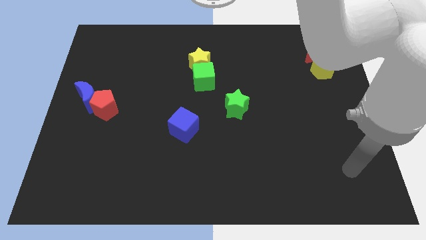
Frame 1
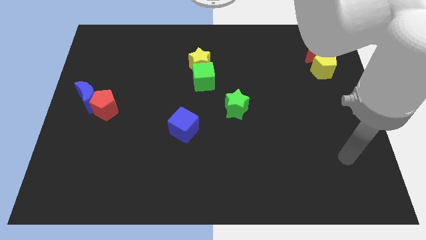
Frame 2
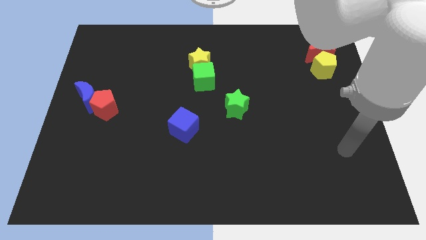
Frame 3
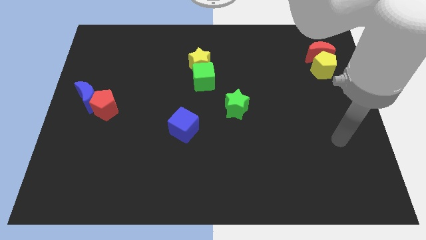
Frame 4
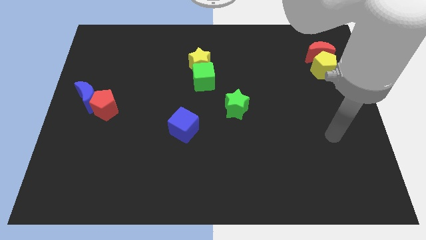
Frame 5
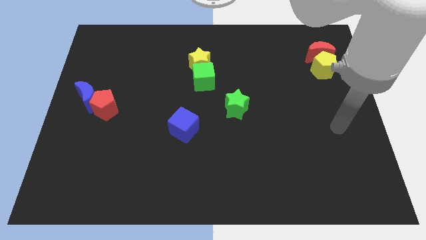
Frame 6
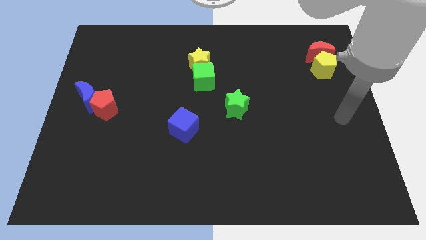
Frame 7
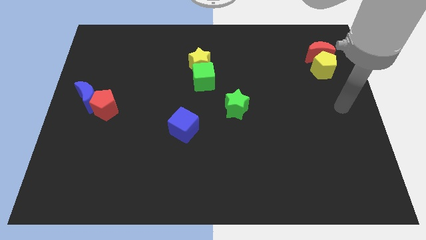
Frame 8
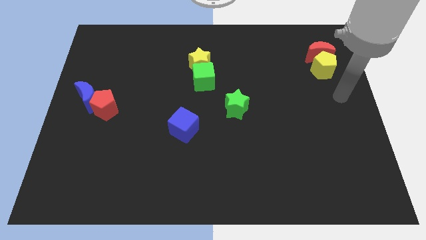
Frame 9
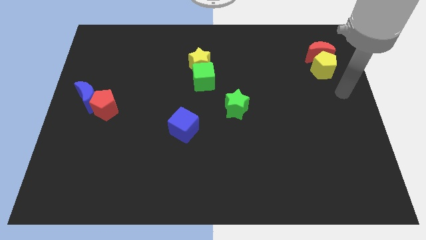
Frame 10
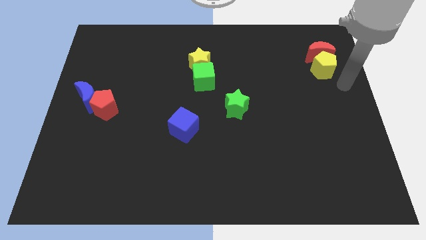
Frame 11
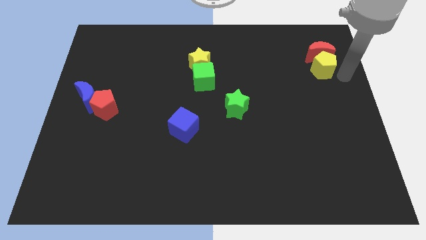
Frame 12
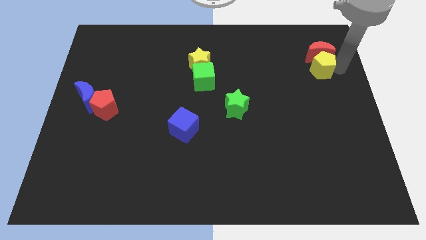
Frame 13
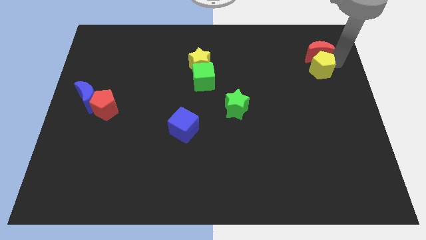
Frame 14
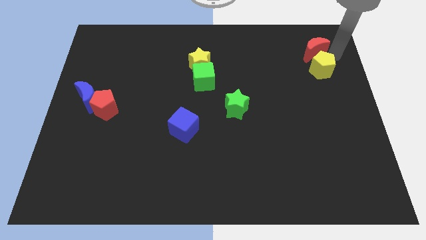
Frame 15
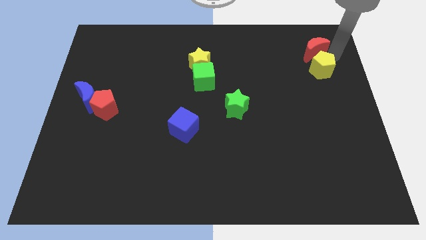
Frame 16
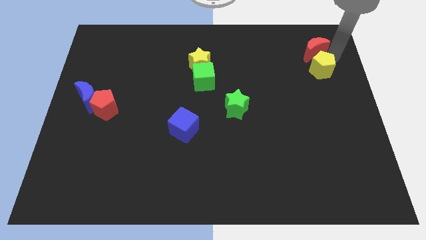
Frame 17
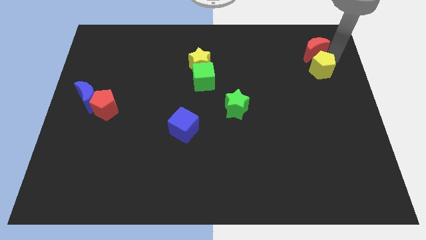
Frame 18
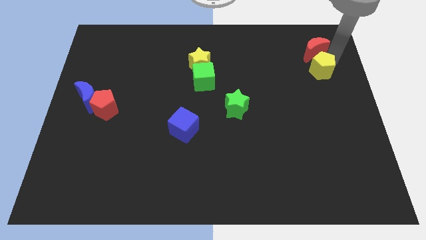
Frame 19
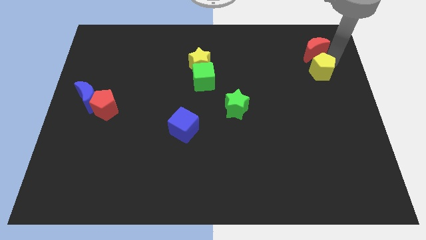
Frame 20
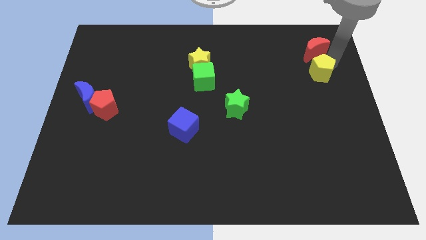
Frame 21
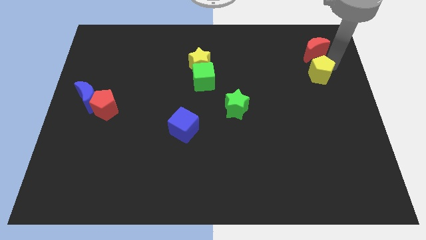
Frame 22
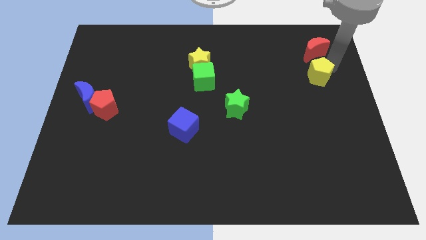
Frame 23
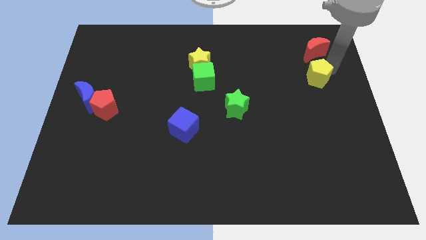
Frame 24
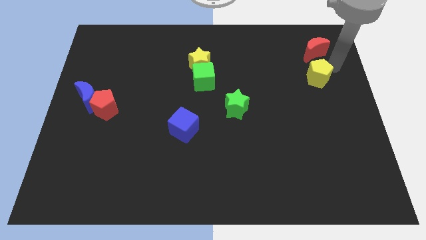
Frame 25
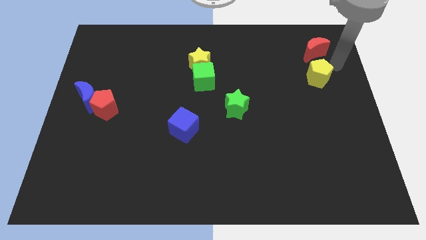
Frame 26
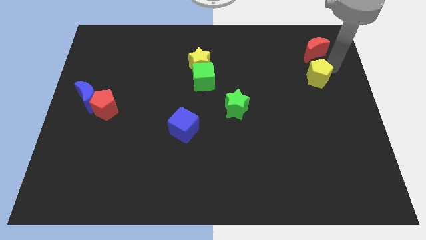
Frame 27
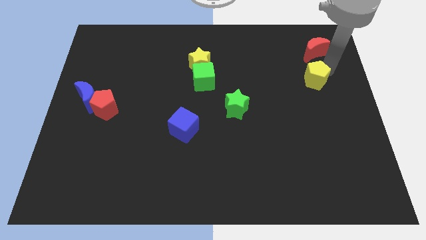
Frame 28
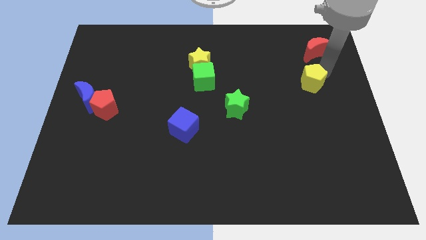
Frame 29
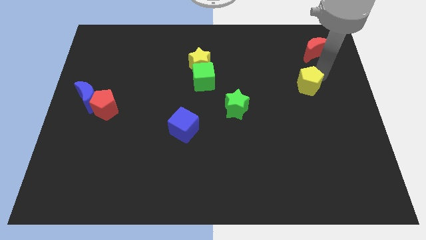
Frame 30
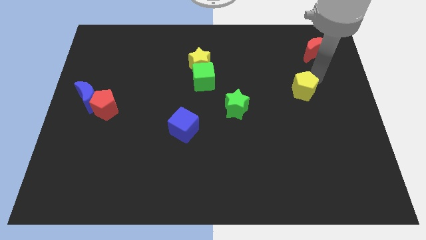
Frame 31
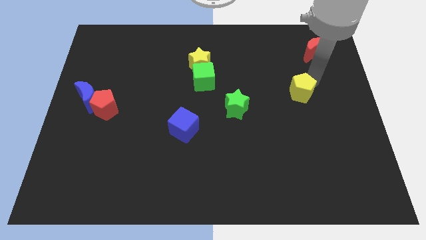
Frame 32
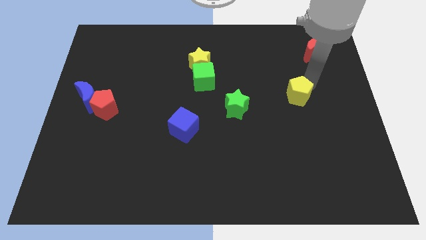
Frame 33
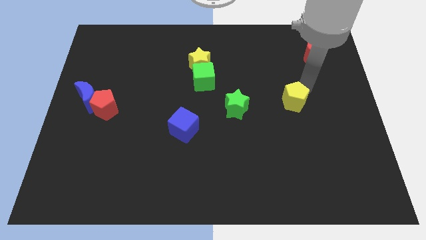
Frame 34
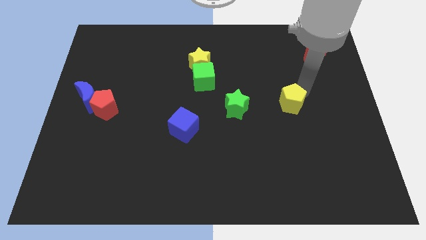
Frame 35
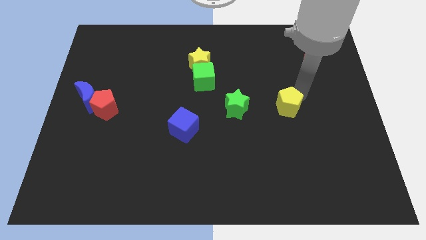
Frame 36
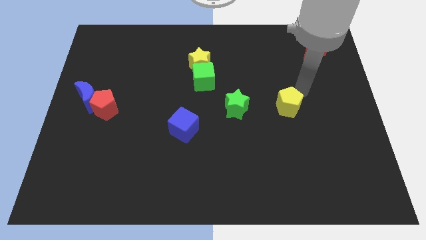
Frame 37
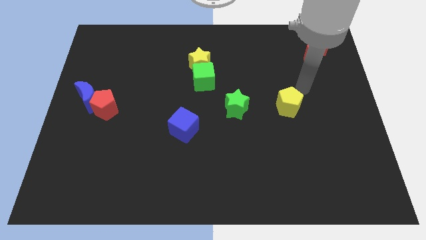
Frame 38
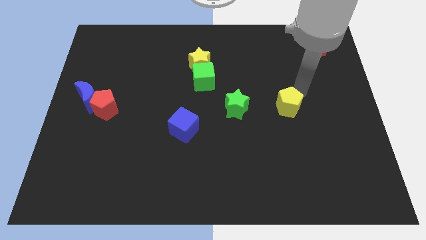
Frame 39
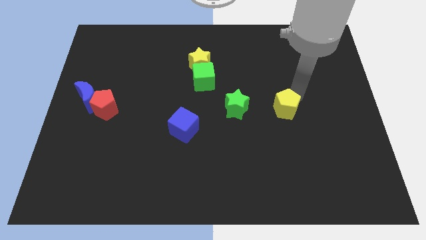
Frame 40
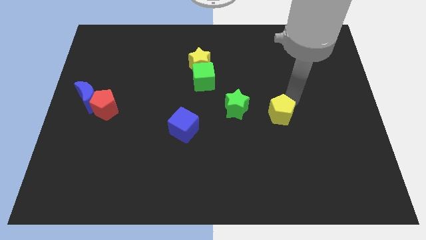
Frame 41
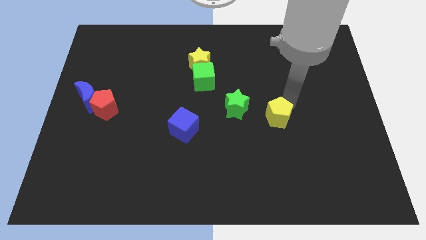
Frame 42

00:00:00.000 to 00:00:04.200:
move the yellow pentagon downwards and left

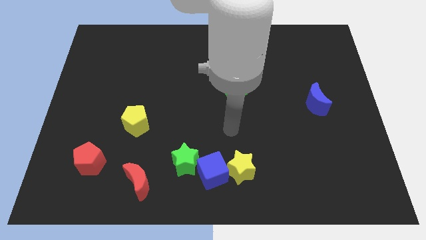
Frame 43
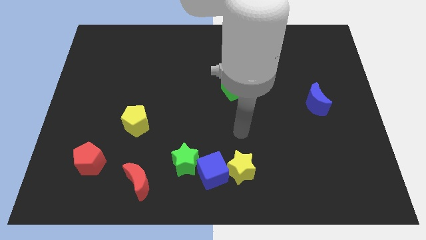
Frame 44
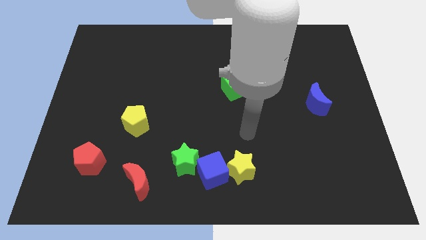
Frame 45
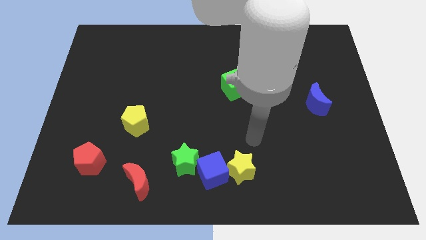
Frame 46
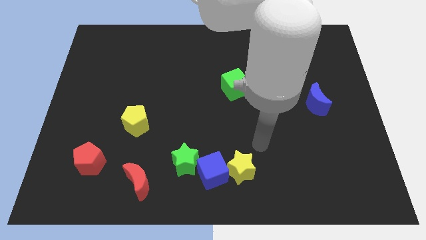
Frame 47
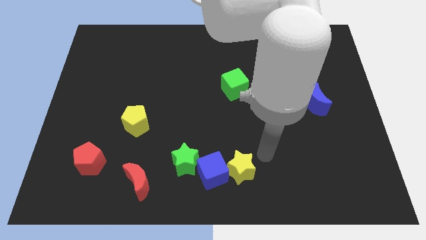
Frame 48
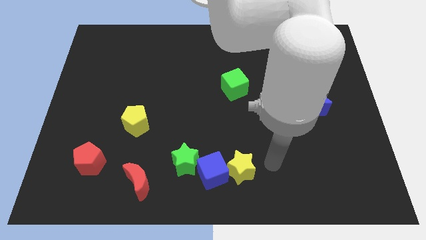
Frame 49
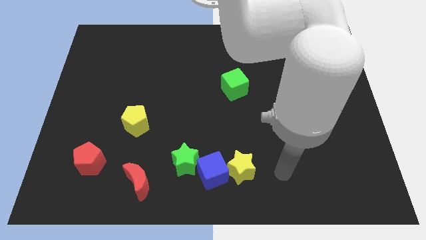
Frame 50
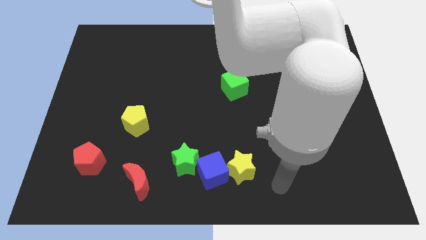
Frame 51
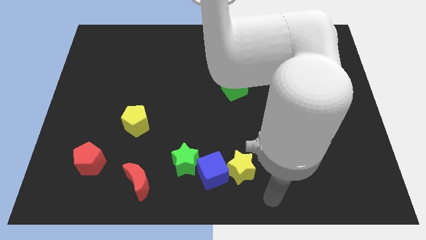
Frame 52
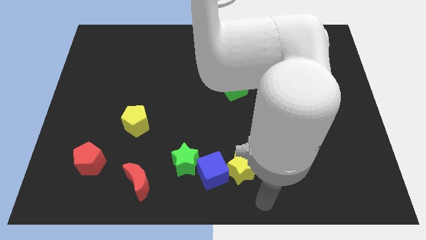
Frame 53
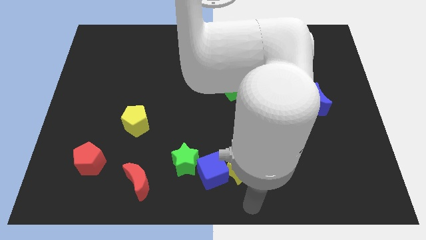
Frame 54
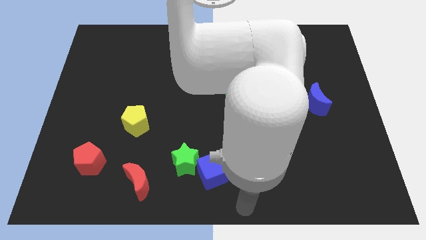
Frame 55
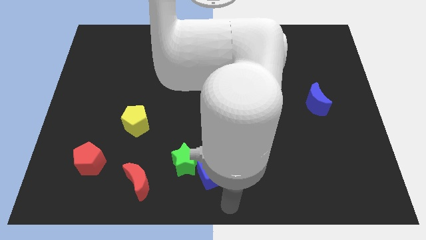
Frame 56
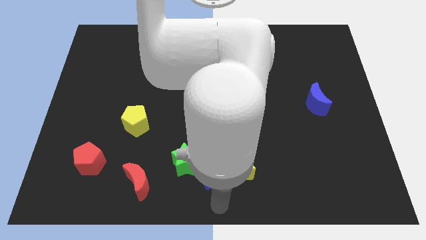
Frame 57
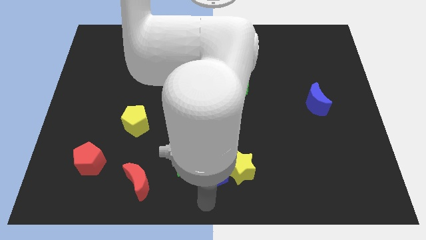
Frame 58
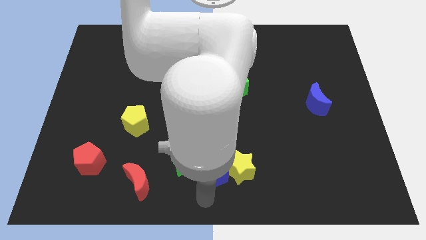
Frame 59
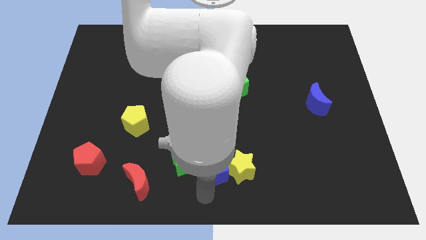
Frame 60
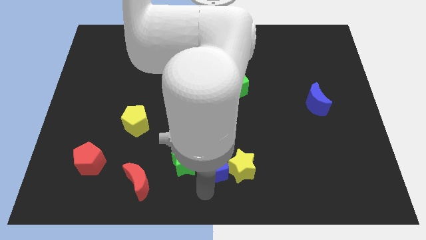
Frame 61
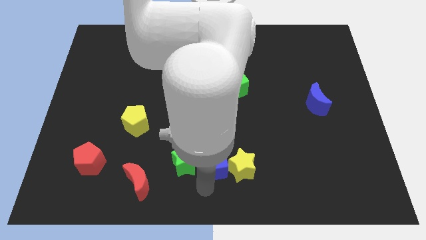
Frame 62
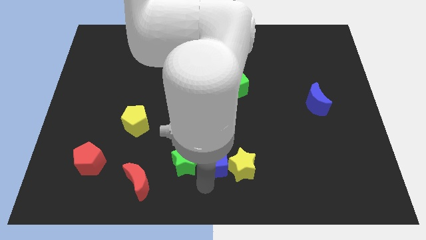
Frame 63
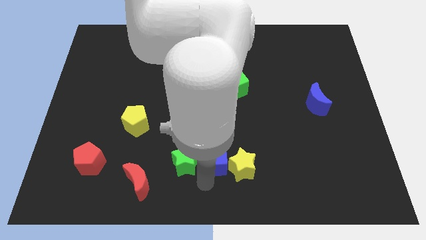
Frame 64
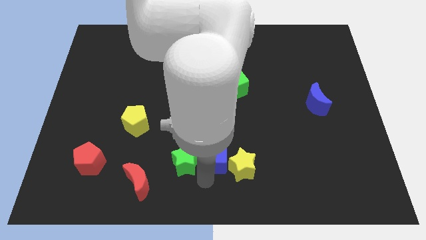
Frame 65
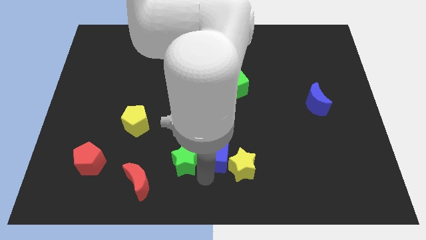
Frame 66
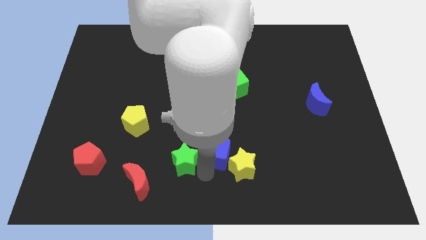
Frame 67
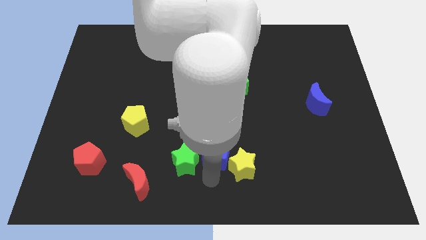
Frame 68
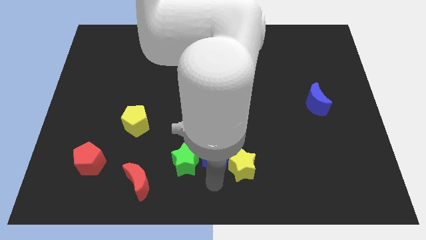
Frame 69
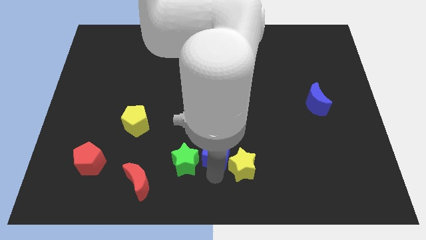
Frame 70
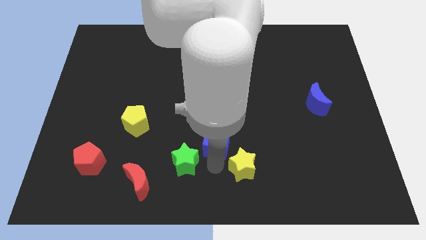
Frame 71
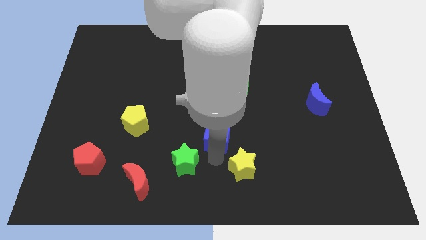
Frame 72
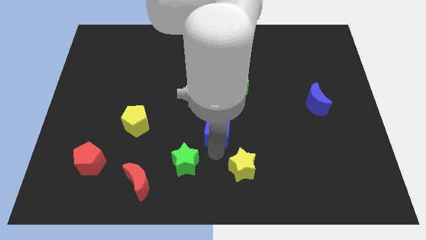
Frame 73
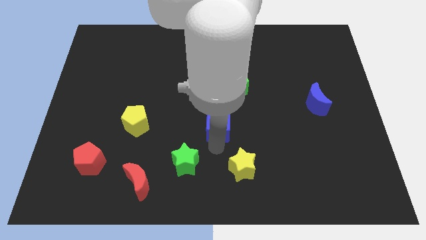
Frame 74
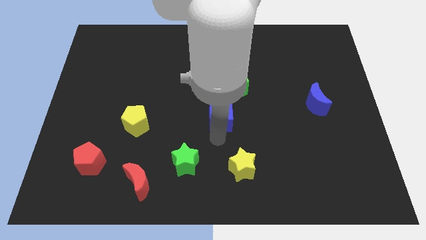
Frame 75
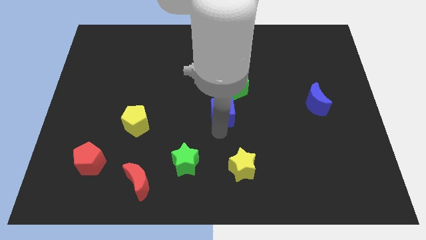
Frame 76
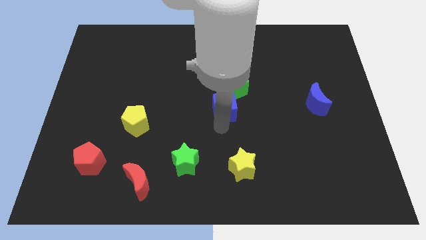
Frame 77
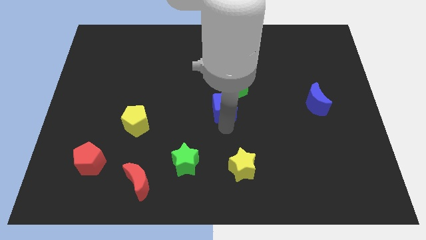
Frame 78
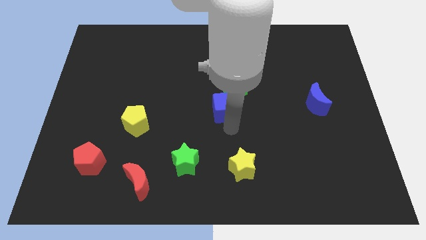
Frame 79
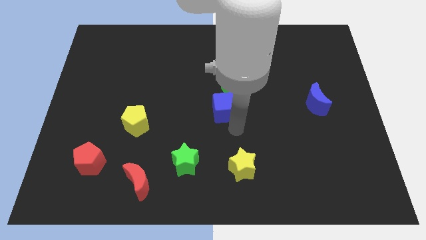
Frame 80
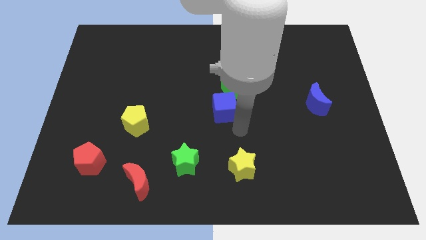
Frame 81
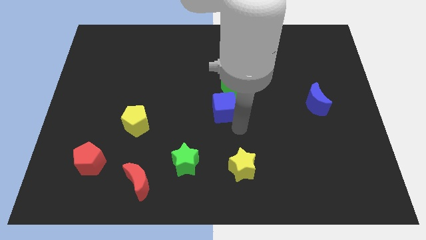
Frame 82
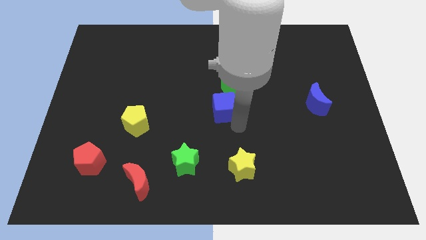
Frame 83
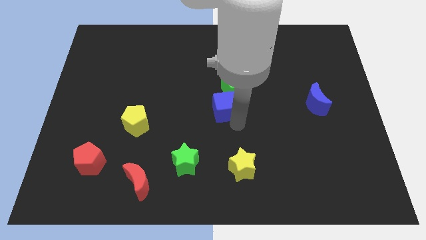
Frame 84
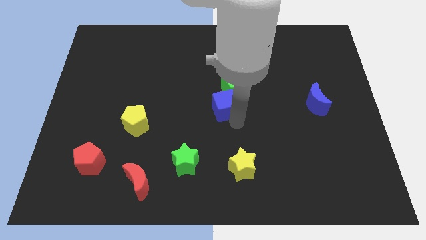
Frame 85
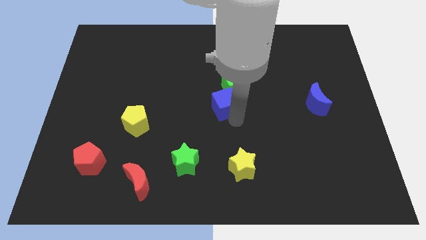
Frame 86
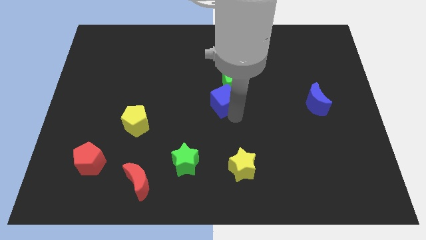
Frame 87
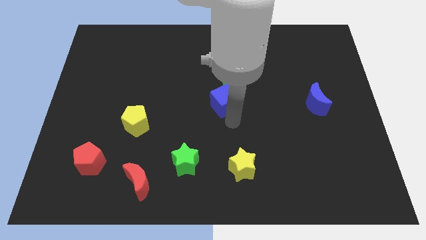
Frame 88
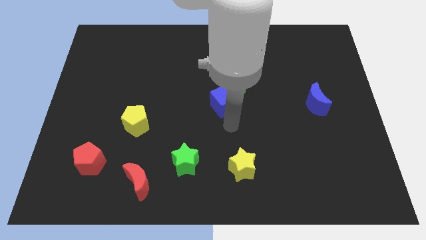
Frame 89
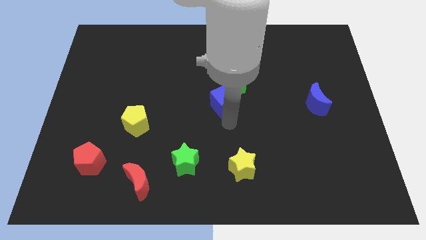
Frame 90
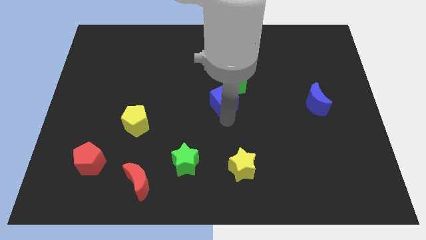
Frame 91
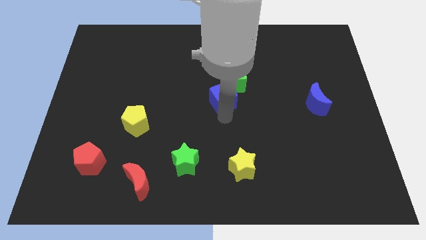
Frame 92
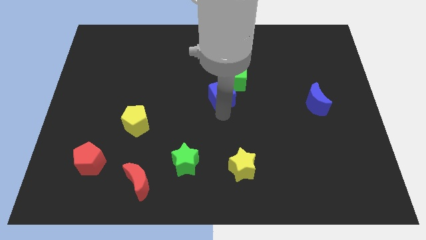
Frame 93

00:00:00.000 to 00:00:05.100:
push the blue cube upwards
